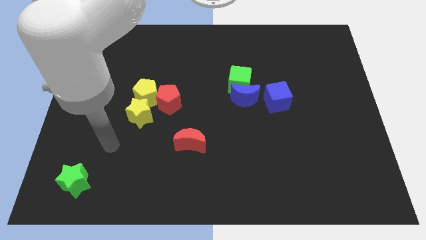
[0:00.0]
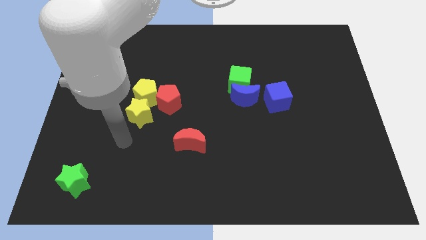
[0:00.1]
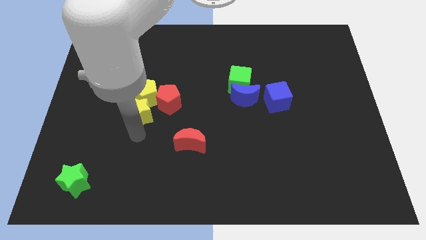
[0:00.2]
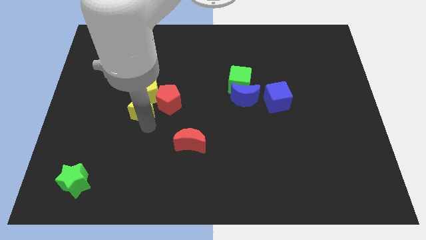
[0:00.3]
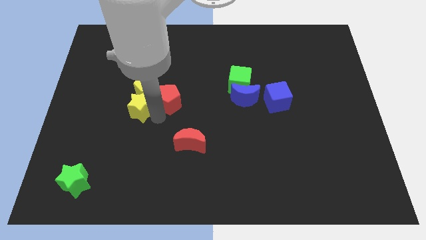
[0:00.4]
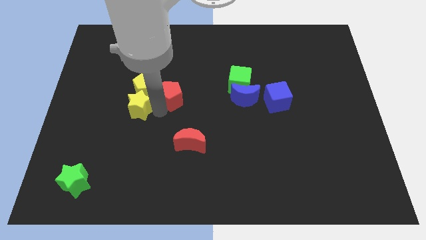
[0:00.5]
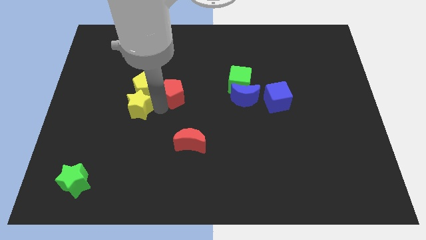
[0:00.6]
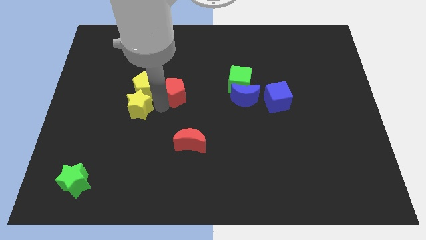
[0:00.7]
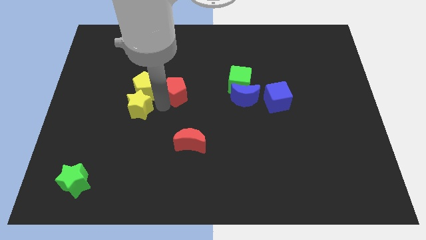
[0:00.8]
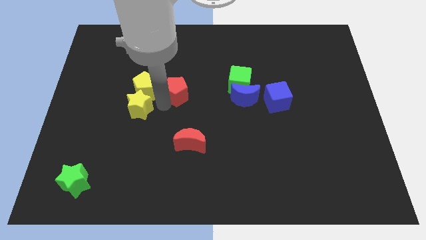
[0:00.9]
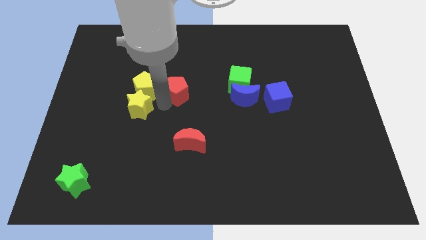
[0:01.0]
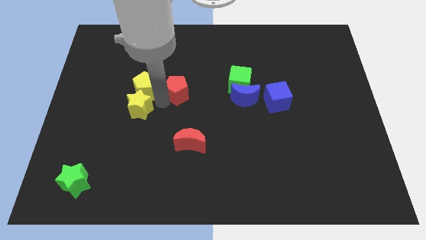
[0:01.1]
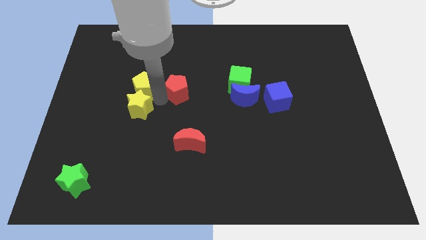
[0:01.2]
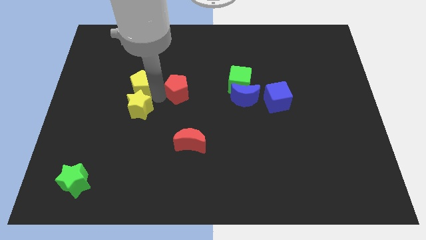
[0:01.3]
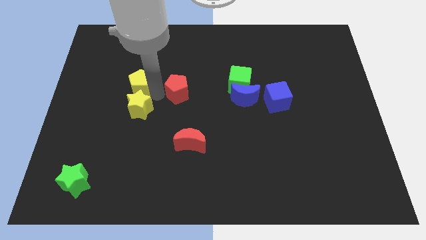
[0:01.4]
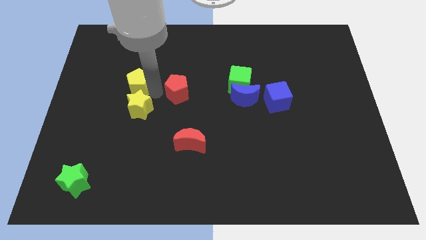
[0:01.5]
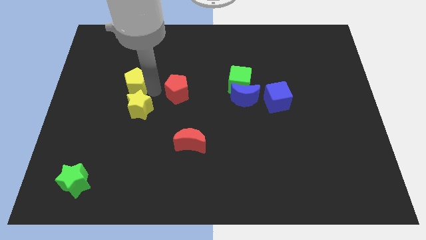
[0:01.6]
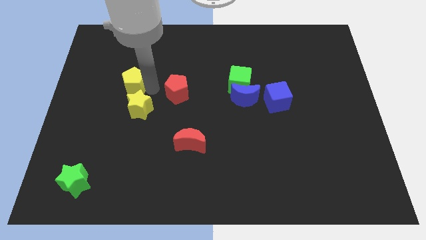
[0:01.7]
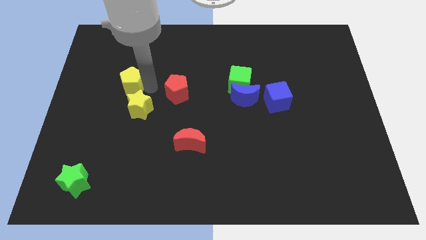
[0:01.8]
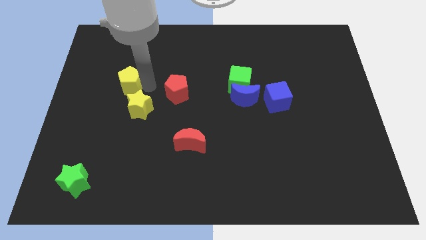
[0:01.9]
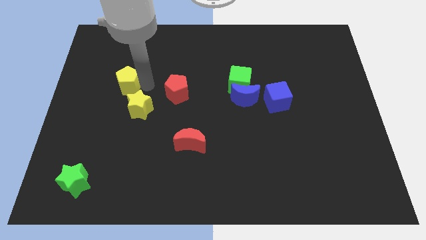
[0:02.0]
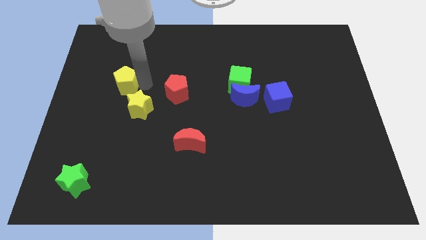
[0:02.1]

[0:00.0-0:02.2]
pull the yellow pentagon apart from the yellow star and red pentagon

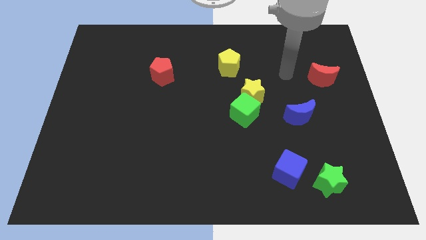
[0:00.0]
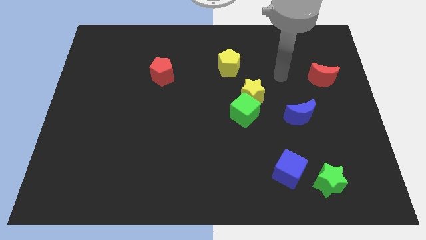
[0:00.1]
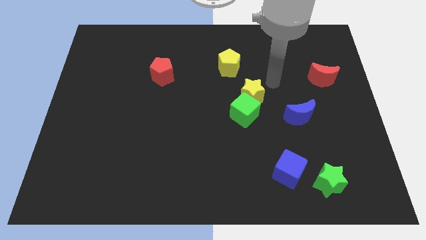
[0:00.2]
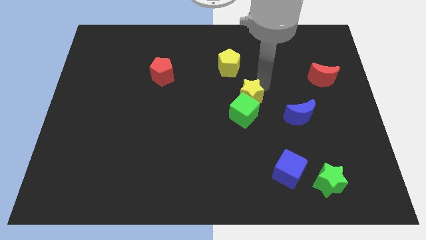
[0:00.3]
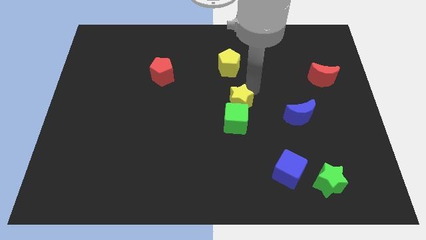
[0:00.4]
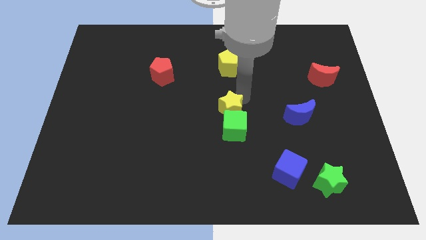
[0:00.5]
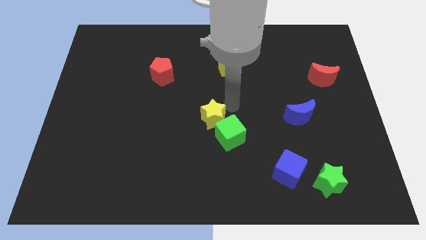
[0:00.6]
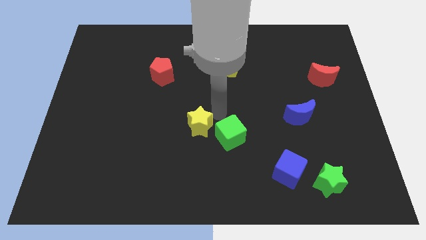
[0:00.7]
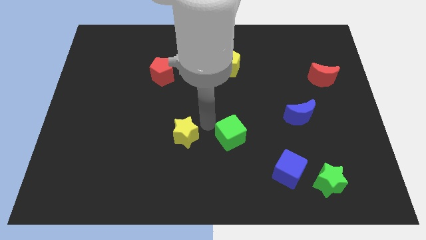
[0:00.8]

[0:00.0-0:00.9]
separate the green cube from the yellow star

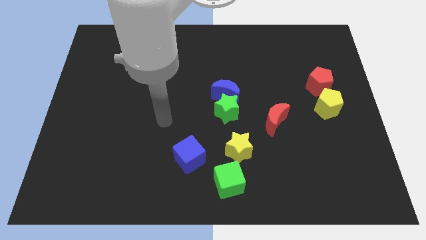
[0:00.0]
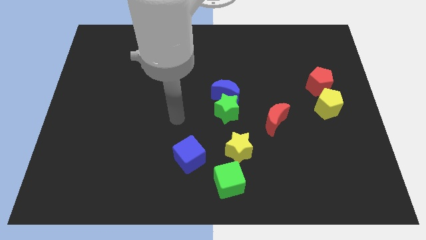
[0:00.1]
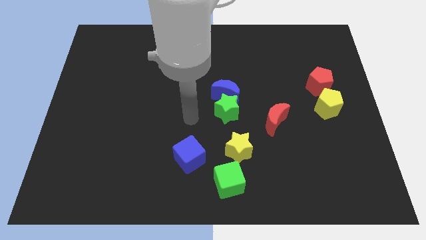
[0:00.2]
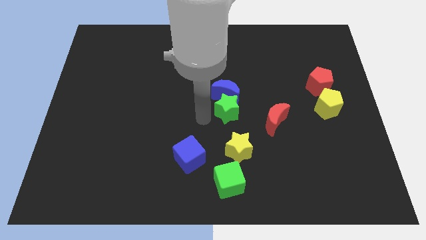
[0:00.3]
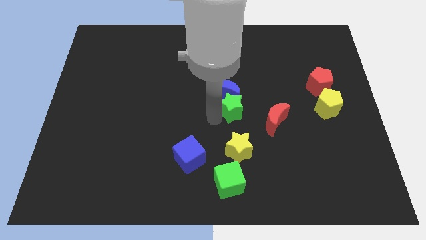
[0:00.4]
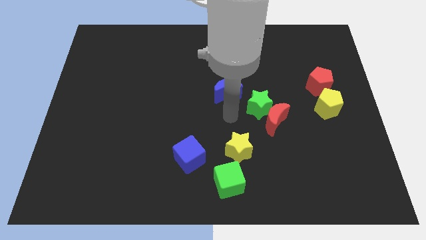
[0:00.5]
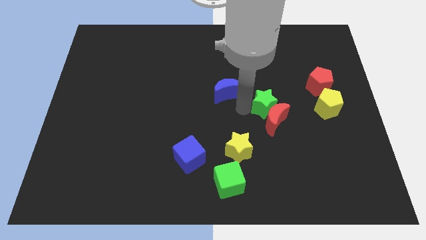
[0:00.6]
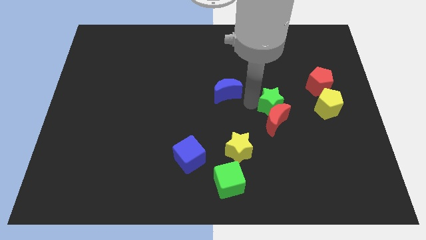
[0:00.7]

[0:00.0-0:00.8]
move the blue moon away from the green star

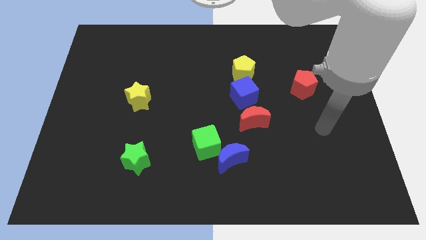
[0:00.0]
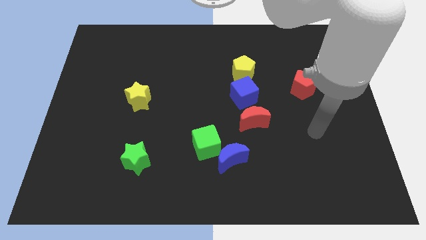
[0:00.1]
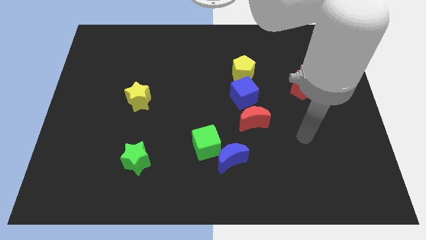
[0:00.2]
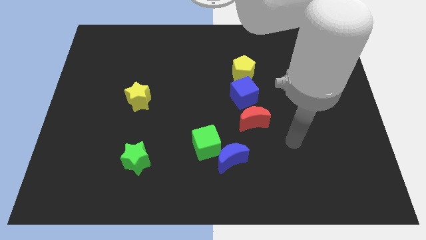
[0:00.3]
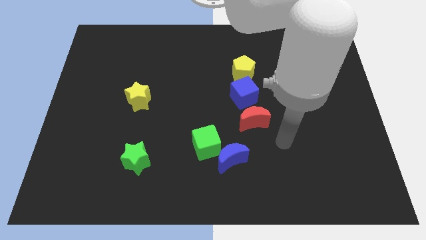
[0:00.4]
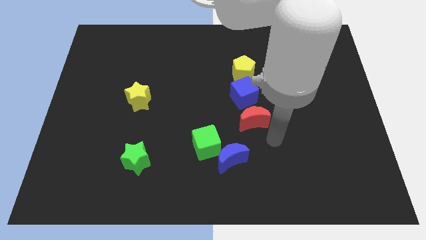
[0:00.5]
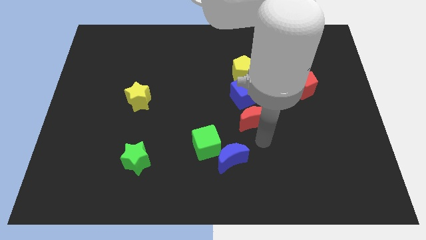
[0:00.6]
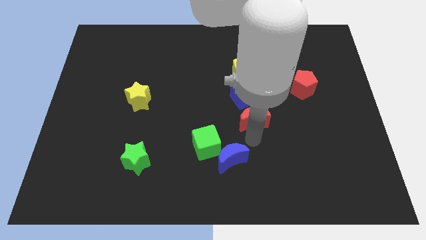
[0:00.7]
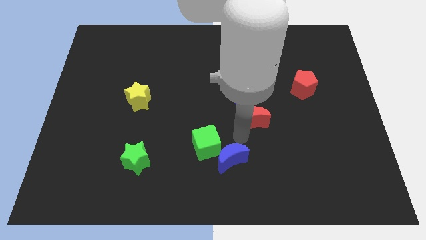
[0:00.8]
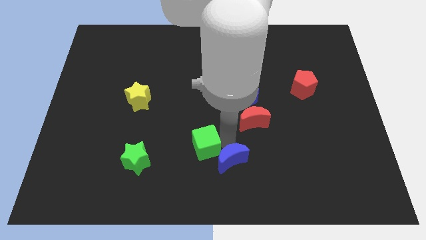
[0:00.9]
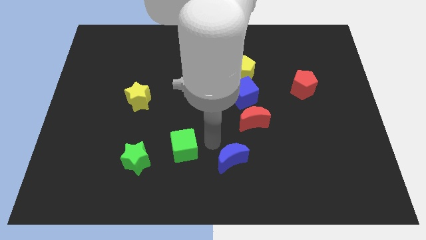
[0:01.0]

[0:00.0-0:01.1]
move the blue moon away from the green cube

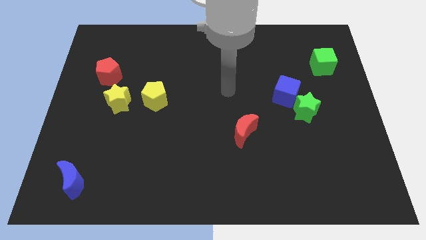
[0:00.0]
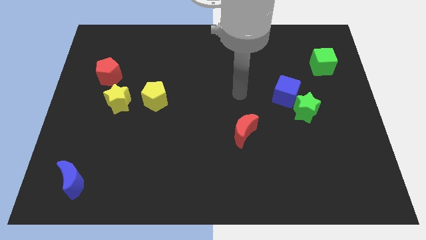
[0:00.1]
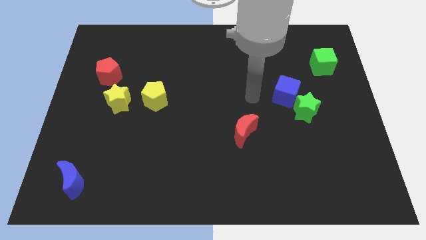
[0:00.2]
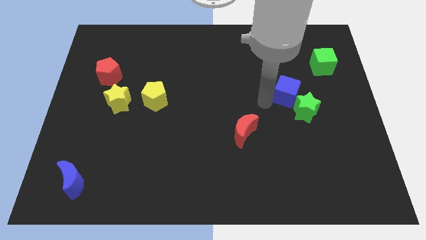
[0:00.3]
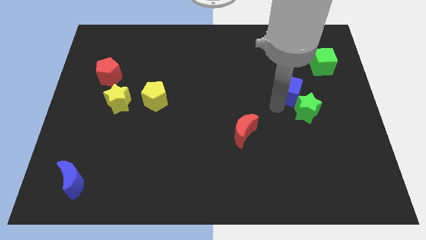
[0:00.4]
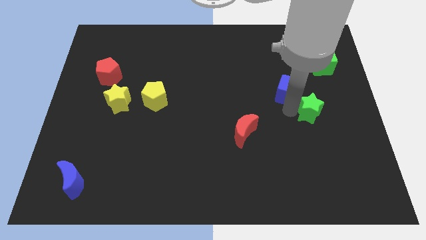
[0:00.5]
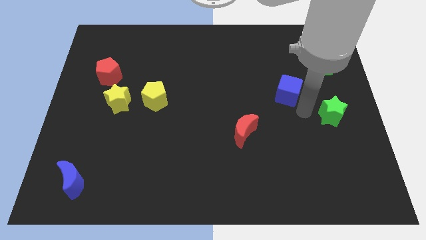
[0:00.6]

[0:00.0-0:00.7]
pull the blue cube apart from the green star

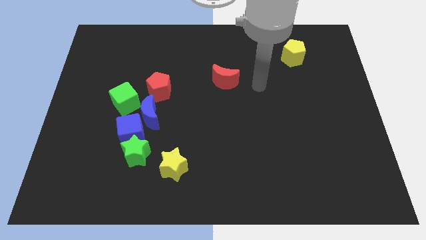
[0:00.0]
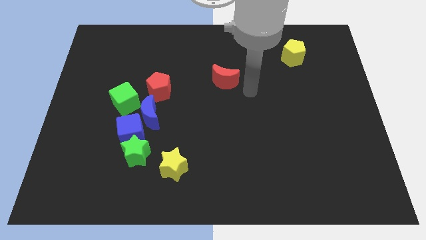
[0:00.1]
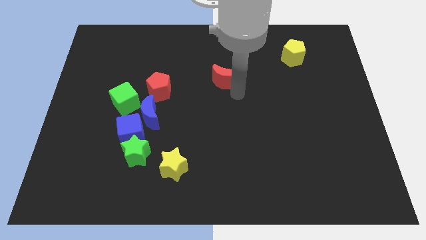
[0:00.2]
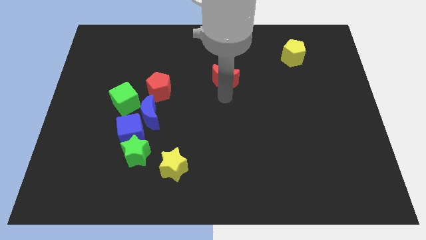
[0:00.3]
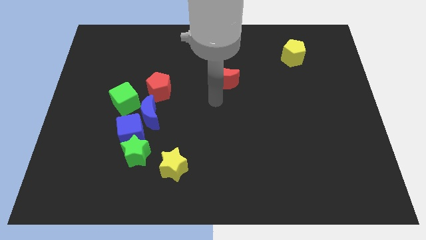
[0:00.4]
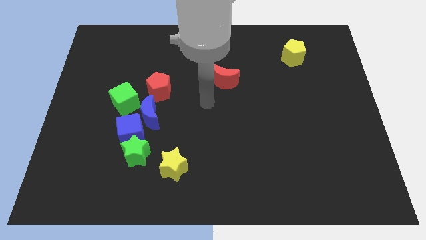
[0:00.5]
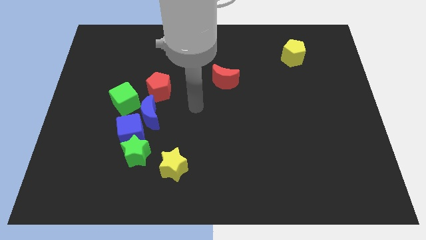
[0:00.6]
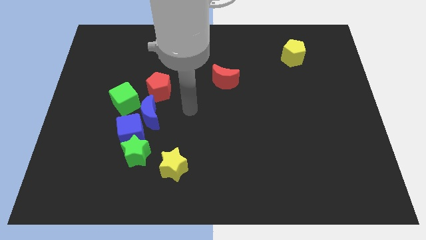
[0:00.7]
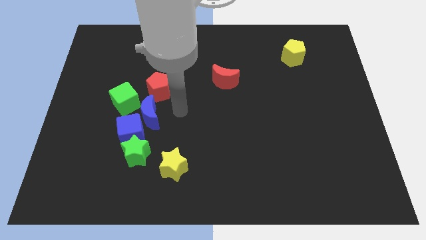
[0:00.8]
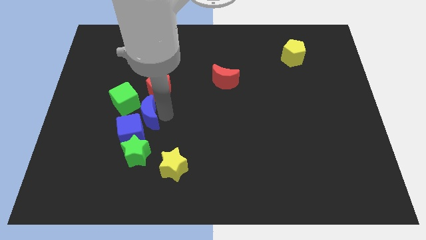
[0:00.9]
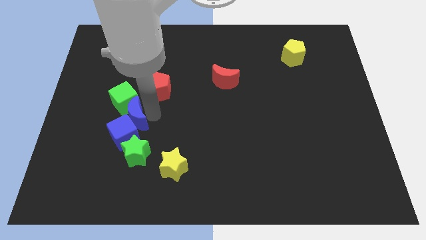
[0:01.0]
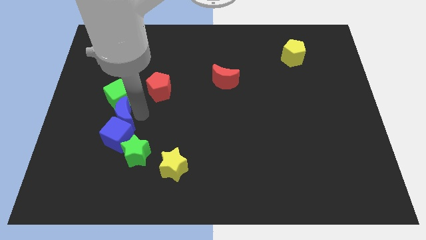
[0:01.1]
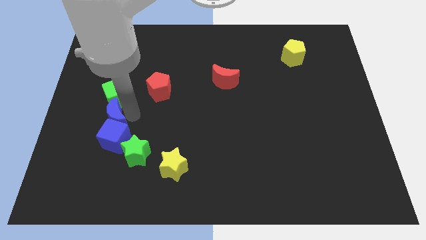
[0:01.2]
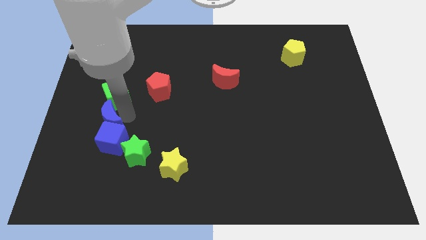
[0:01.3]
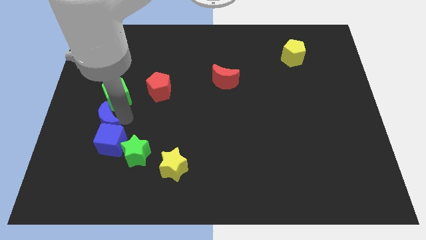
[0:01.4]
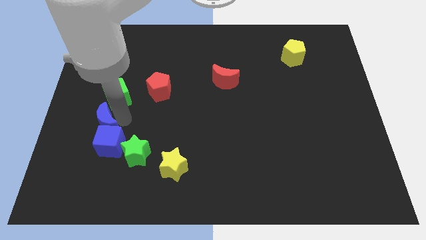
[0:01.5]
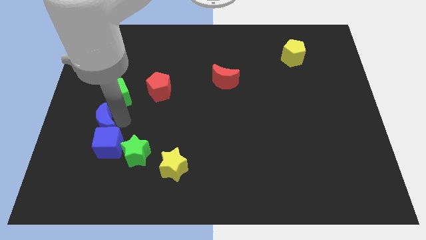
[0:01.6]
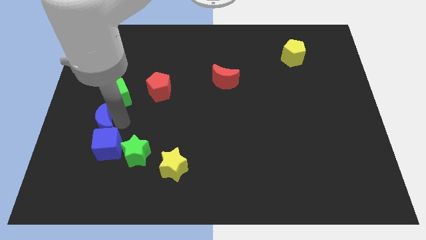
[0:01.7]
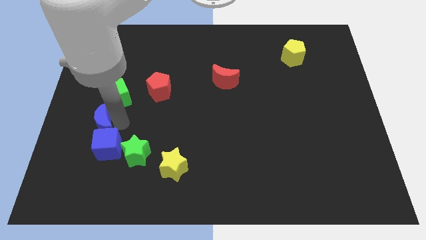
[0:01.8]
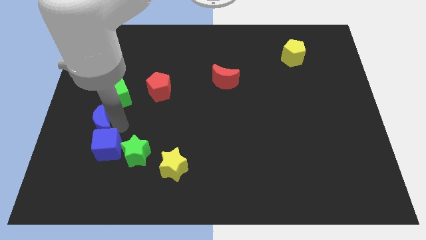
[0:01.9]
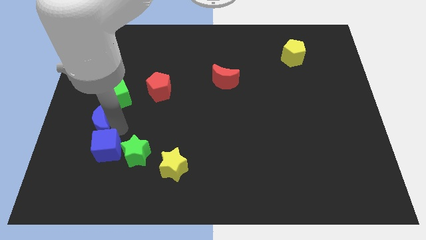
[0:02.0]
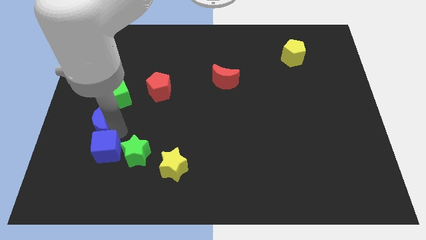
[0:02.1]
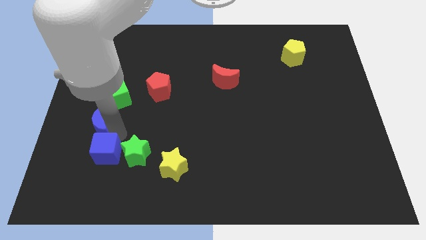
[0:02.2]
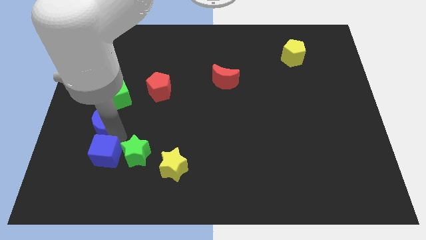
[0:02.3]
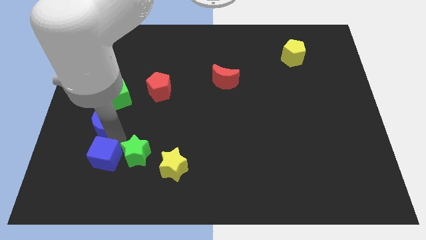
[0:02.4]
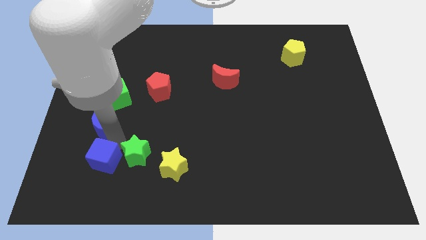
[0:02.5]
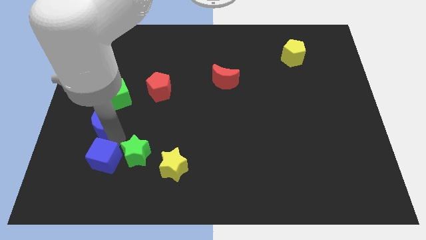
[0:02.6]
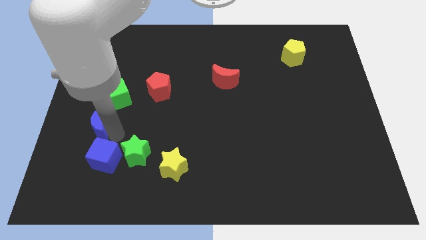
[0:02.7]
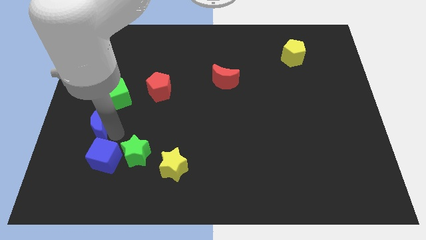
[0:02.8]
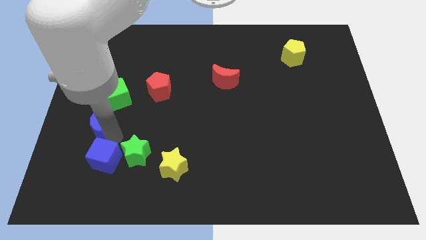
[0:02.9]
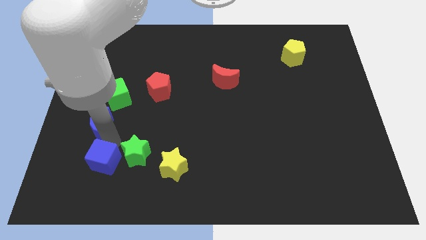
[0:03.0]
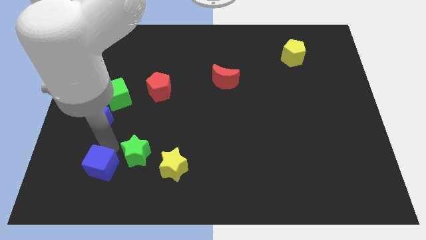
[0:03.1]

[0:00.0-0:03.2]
move the blue cube away from the green star, blue moon, and green cube

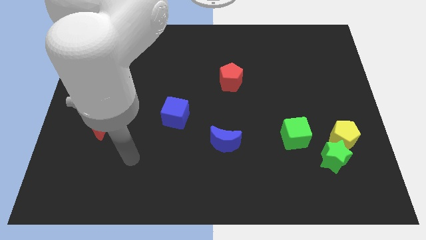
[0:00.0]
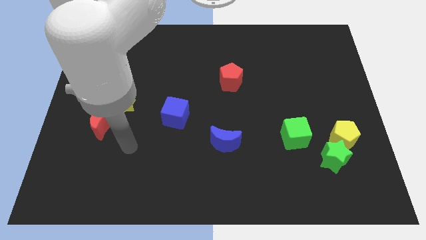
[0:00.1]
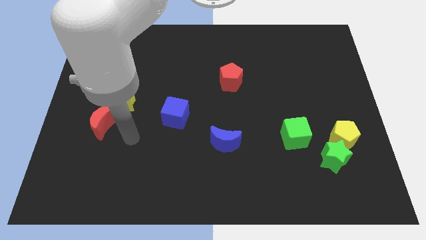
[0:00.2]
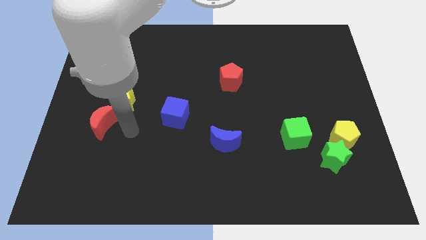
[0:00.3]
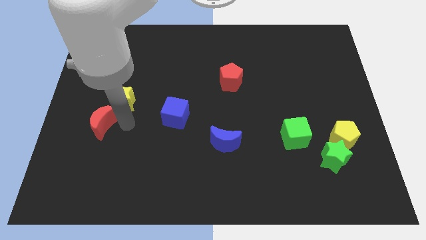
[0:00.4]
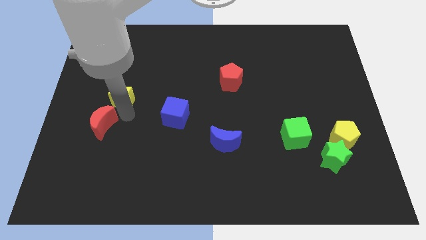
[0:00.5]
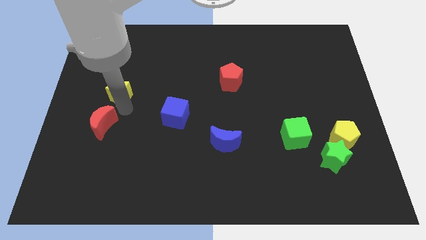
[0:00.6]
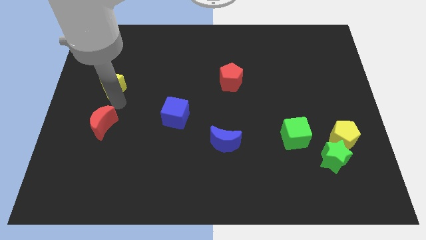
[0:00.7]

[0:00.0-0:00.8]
pull the red moon apart from the yellow star
